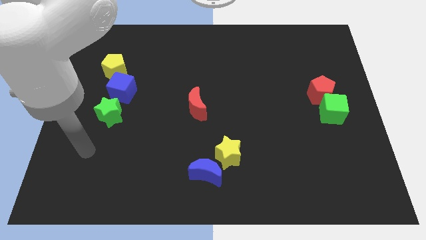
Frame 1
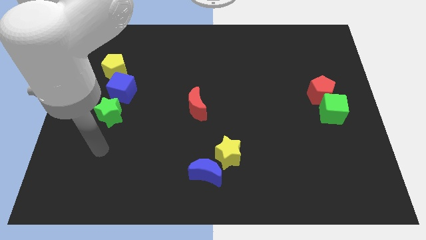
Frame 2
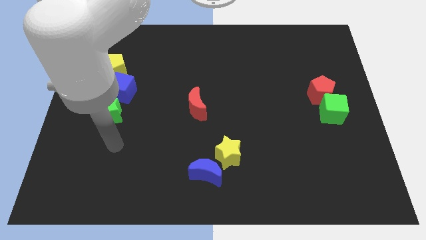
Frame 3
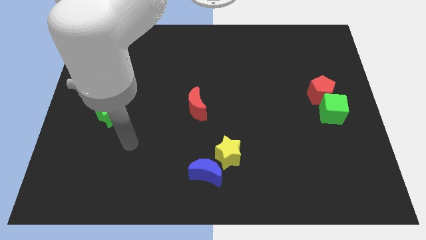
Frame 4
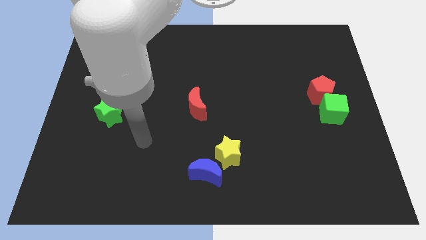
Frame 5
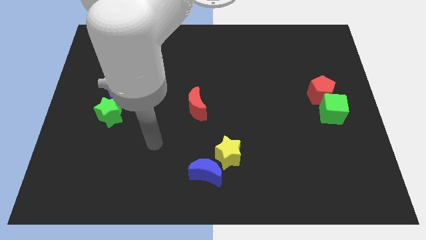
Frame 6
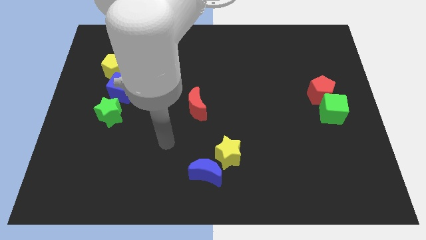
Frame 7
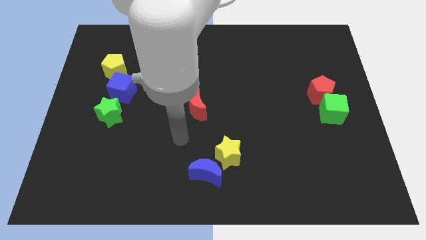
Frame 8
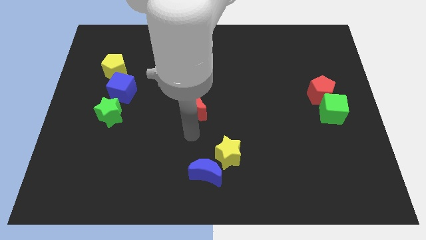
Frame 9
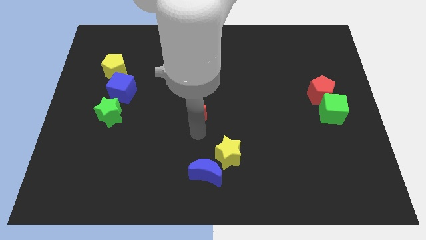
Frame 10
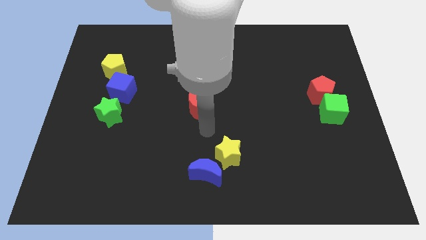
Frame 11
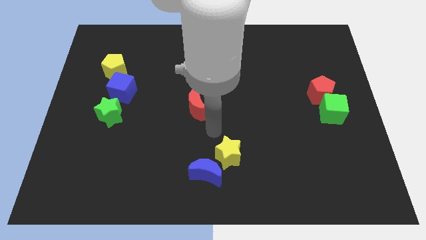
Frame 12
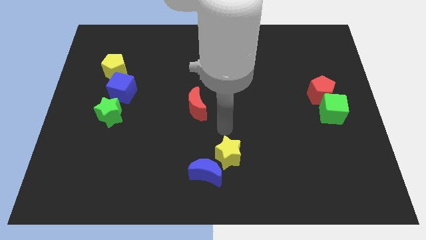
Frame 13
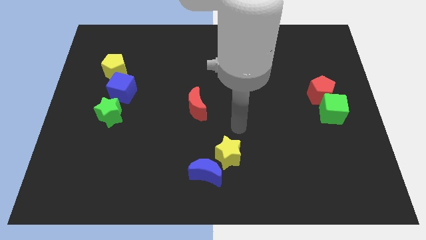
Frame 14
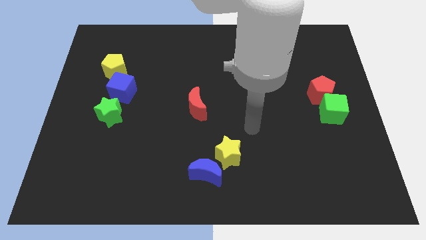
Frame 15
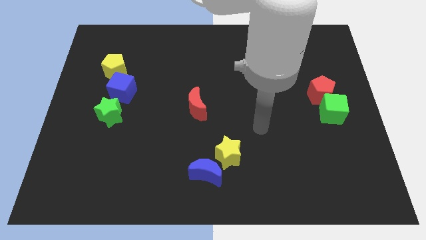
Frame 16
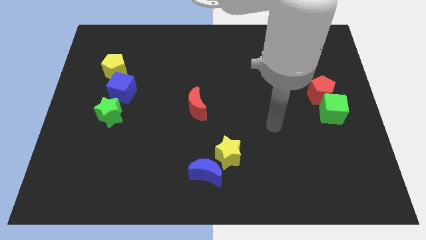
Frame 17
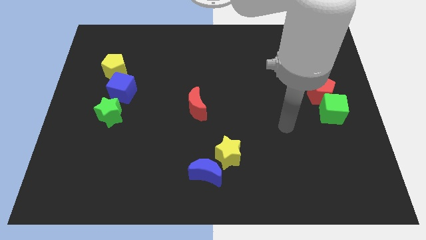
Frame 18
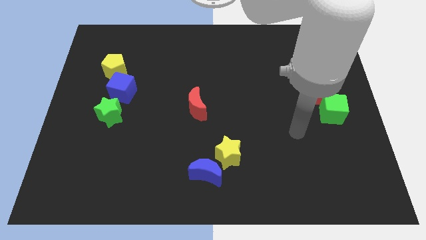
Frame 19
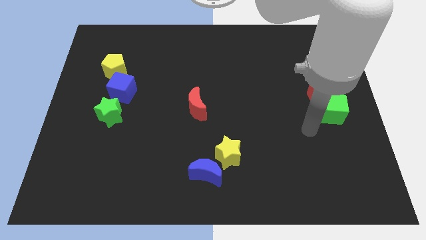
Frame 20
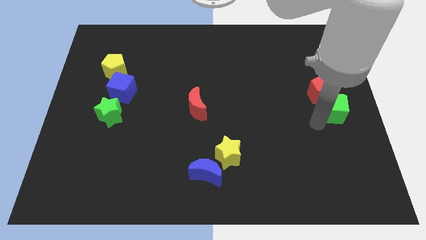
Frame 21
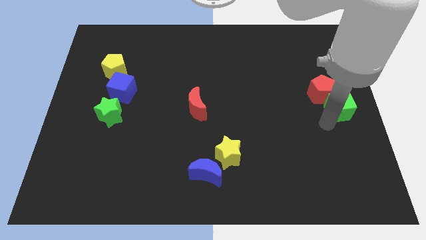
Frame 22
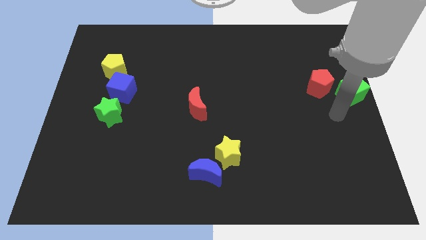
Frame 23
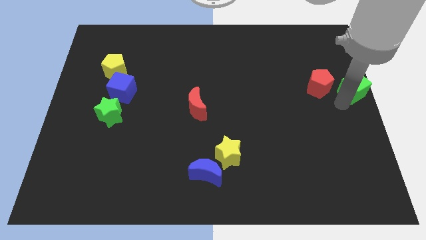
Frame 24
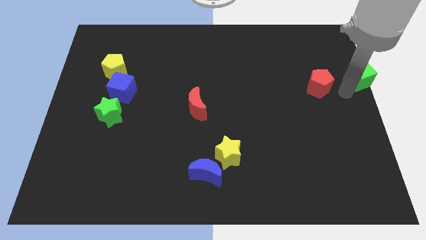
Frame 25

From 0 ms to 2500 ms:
move the red pentagon away from the green cube

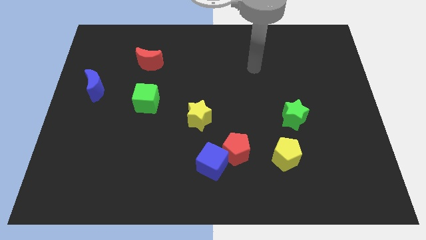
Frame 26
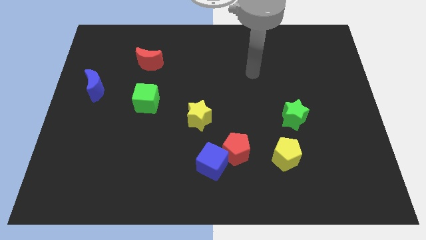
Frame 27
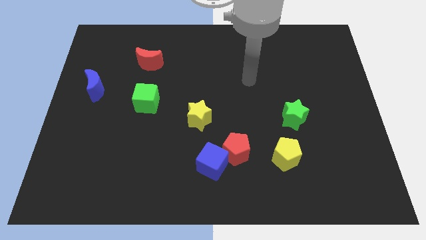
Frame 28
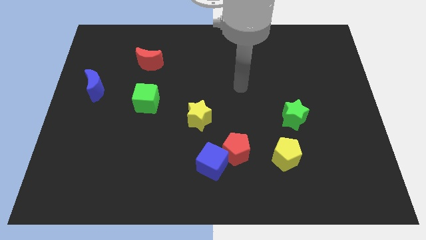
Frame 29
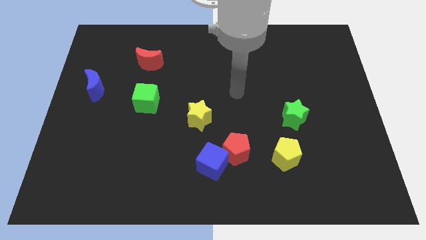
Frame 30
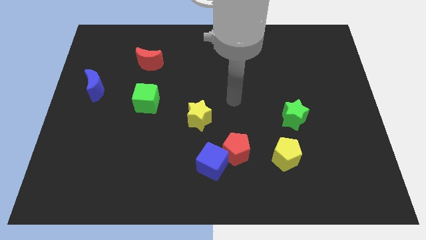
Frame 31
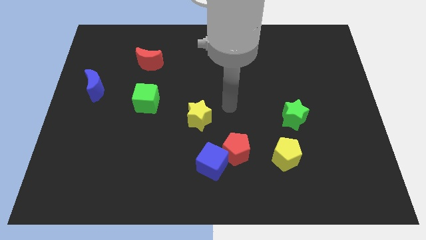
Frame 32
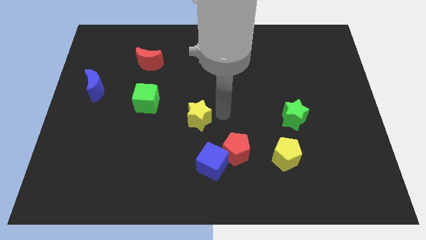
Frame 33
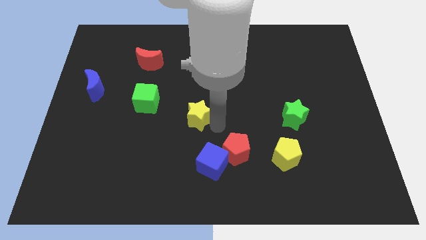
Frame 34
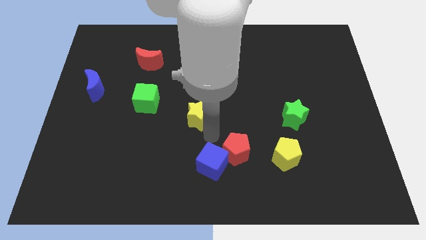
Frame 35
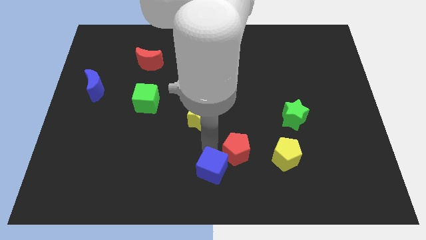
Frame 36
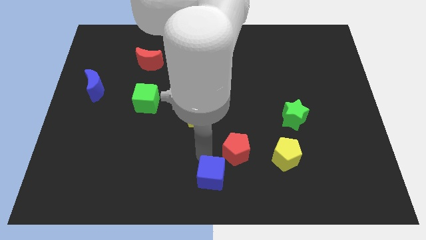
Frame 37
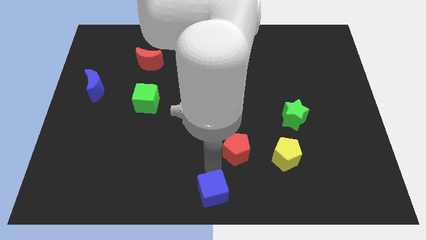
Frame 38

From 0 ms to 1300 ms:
pull the red pentagon apart from the blue cube

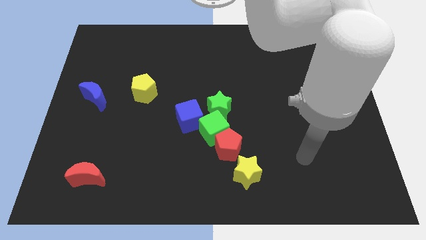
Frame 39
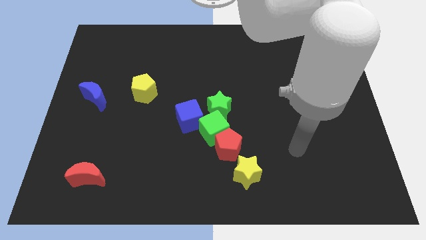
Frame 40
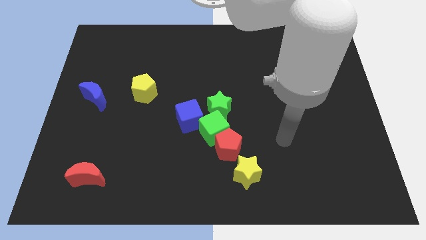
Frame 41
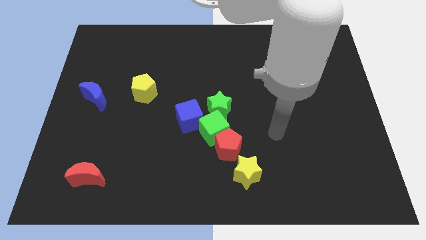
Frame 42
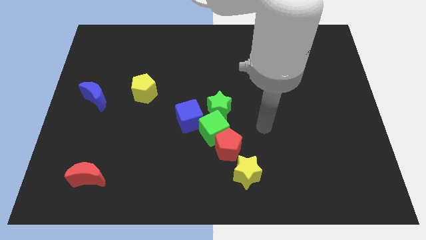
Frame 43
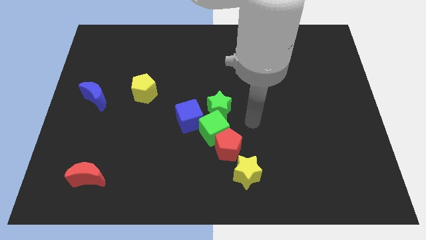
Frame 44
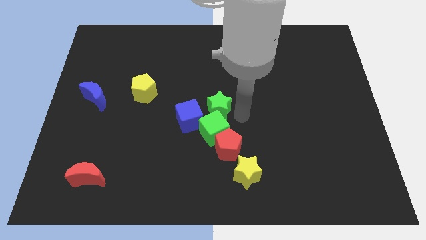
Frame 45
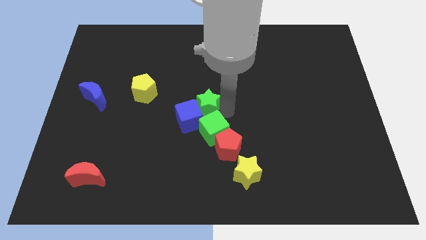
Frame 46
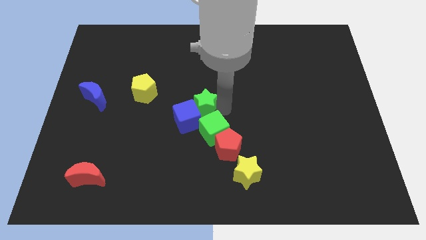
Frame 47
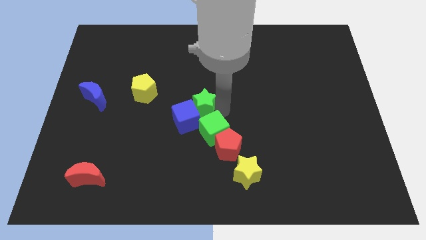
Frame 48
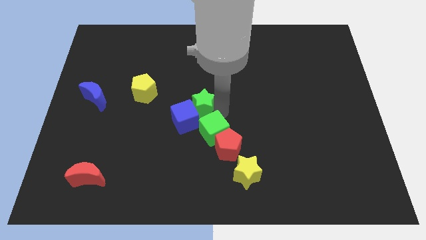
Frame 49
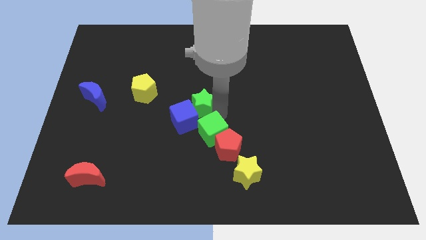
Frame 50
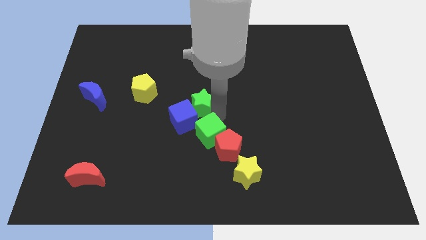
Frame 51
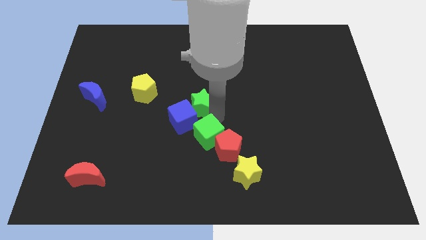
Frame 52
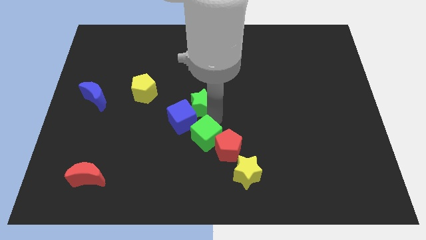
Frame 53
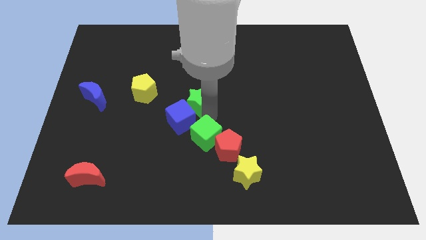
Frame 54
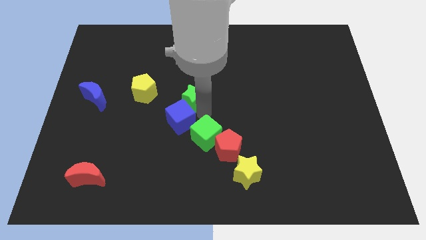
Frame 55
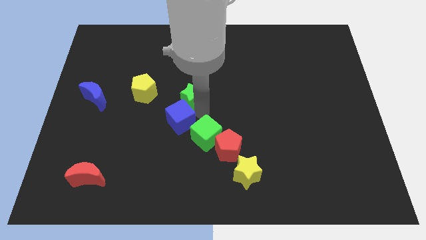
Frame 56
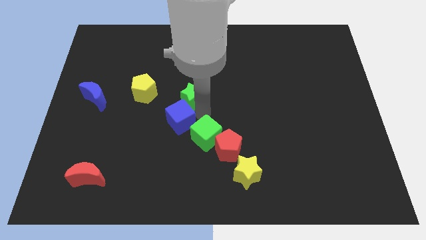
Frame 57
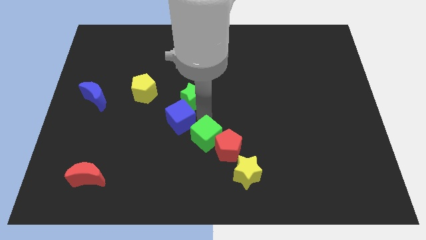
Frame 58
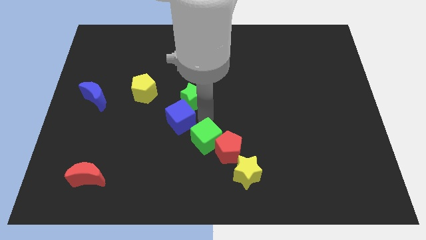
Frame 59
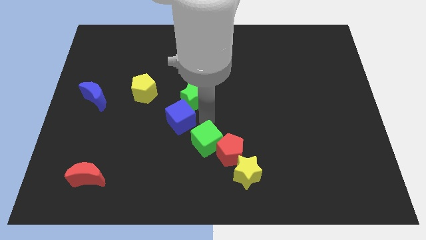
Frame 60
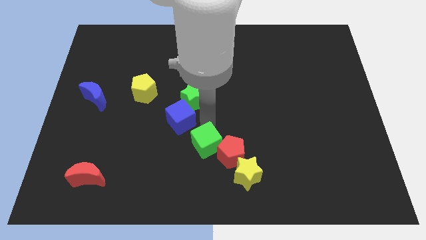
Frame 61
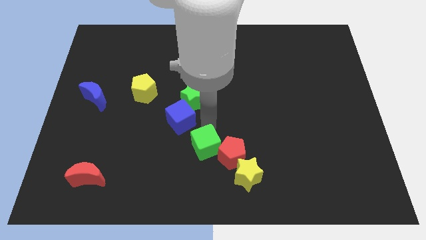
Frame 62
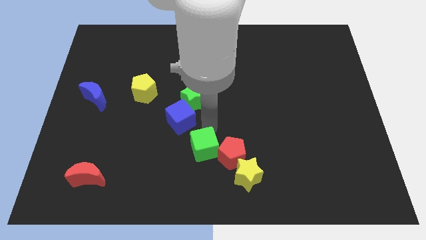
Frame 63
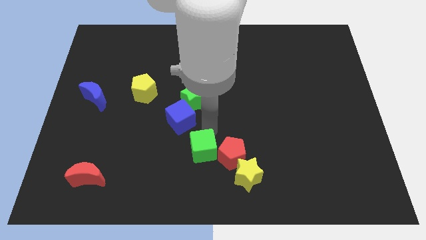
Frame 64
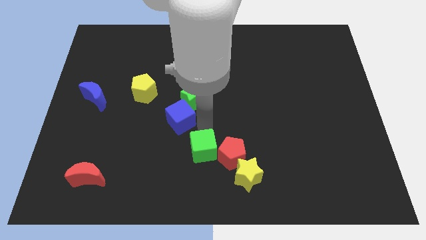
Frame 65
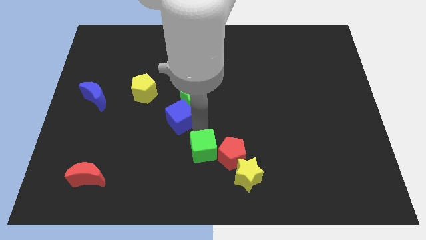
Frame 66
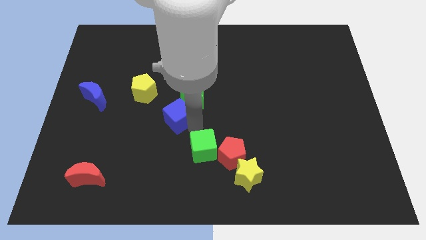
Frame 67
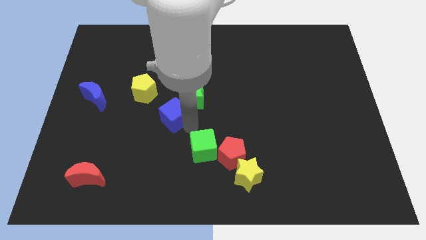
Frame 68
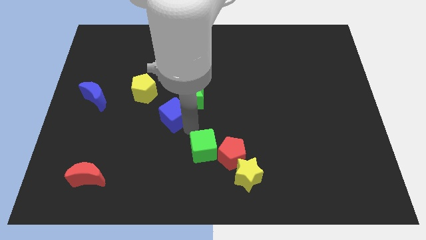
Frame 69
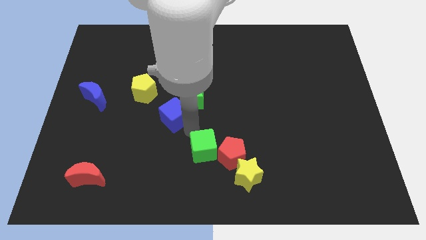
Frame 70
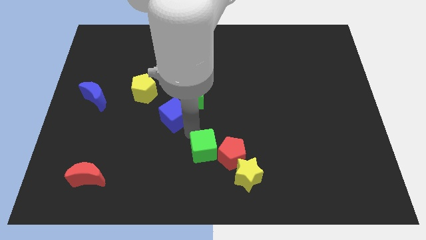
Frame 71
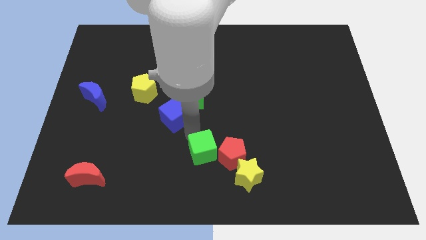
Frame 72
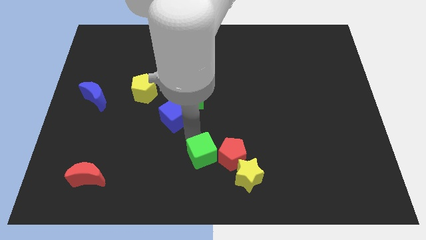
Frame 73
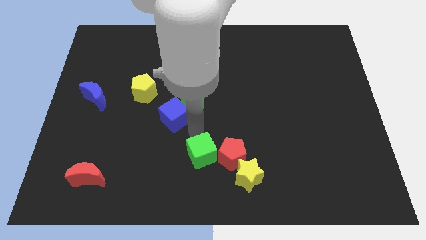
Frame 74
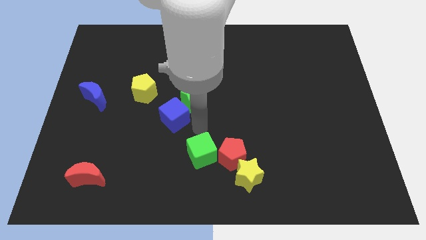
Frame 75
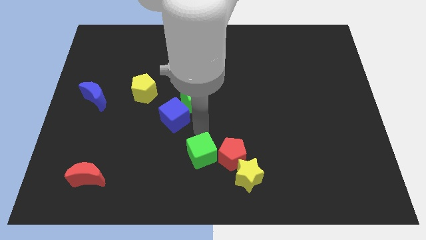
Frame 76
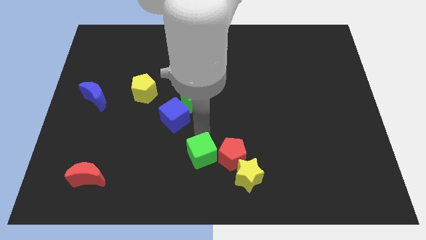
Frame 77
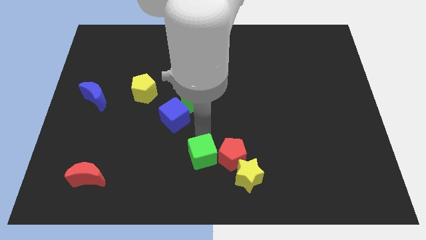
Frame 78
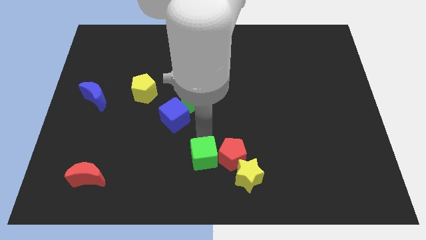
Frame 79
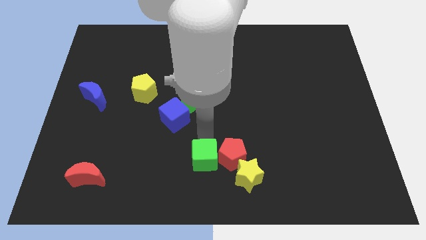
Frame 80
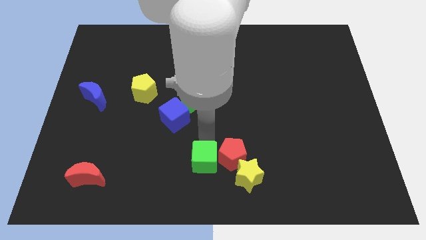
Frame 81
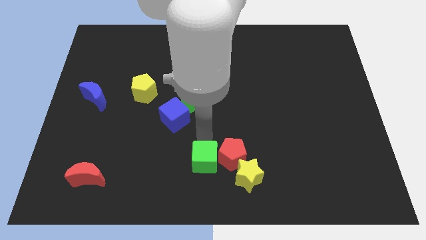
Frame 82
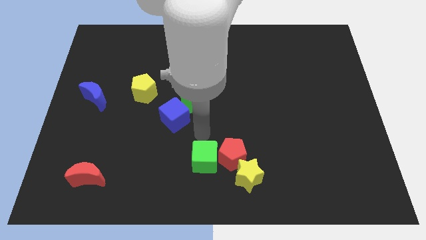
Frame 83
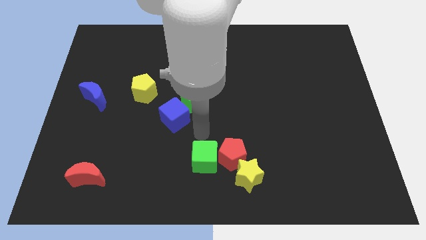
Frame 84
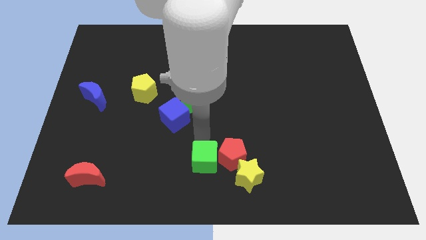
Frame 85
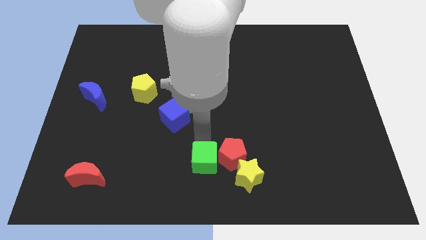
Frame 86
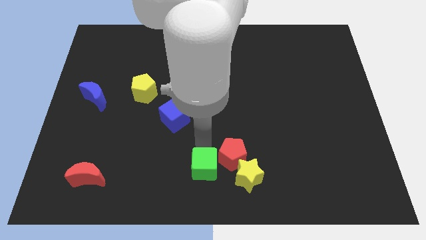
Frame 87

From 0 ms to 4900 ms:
pull the green cube apart from the group of blocks

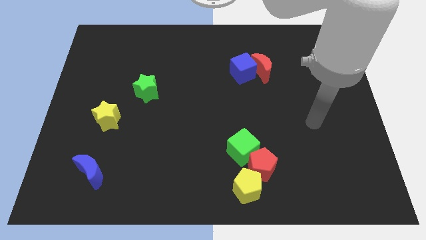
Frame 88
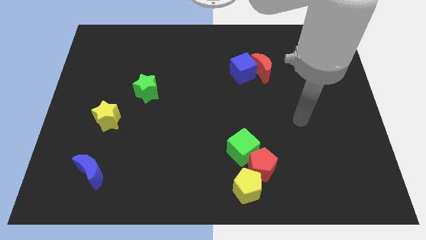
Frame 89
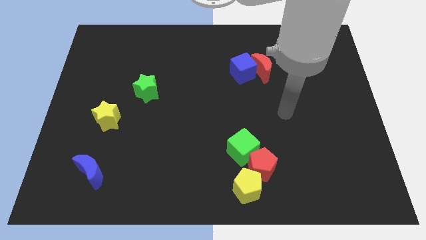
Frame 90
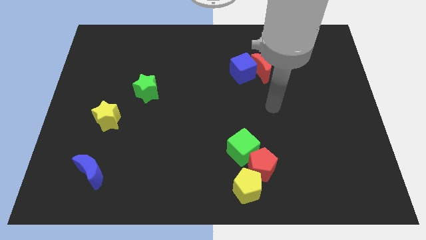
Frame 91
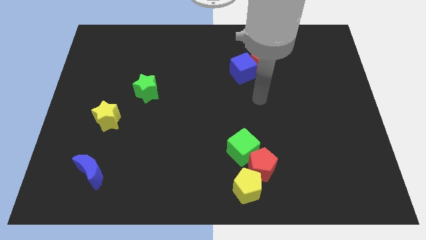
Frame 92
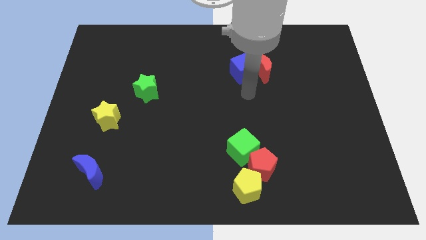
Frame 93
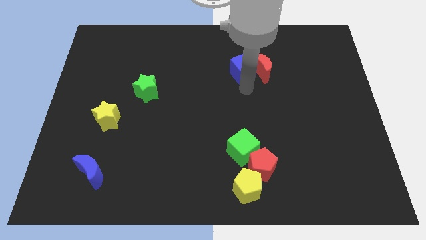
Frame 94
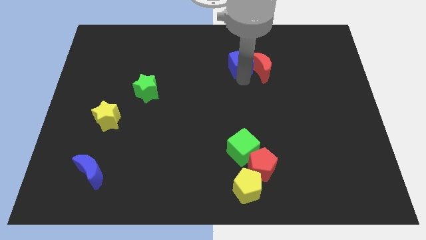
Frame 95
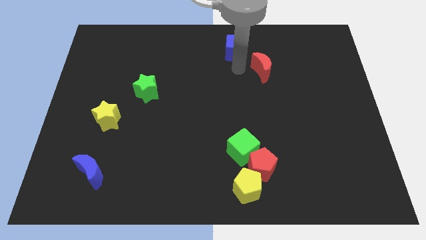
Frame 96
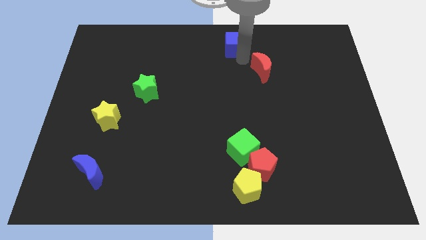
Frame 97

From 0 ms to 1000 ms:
separate the red moon from the blue cube
